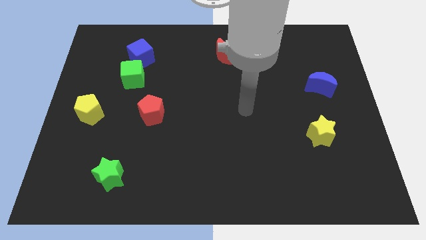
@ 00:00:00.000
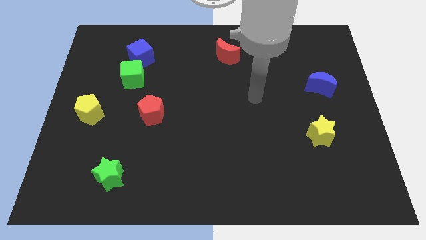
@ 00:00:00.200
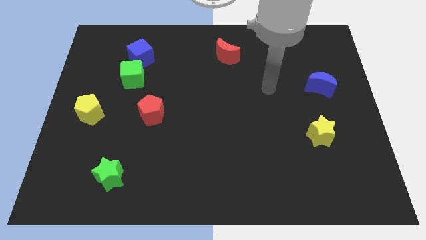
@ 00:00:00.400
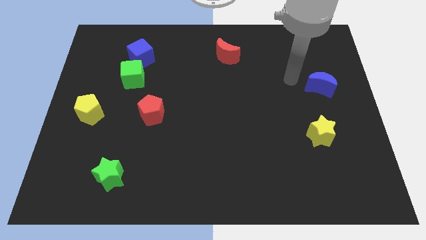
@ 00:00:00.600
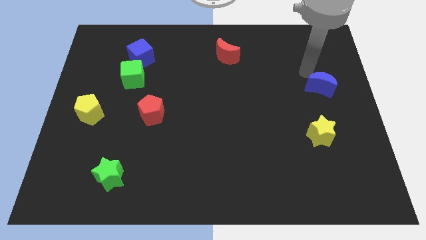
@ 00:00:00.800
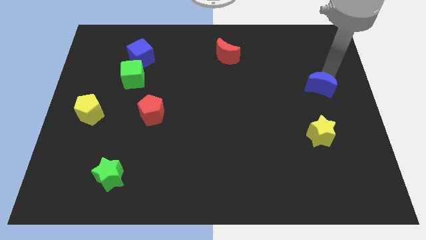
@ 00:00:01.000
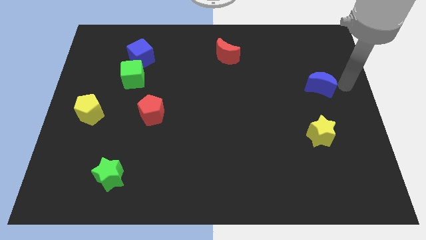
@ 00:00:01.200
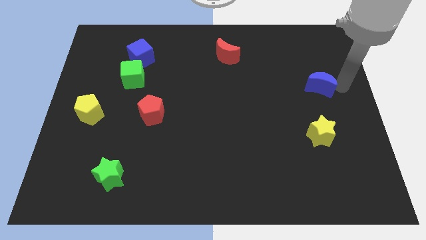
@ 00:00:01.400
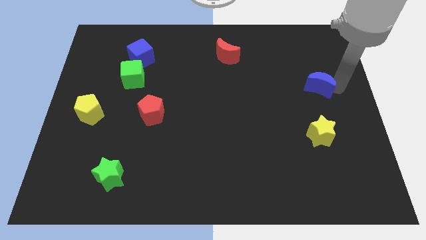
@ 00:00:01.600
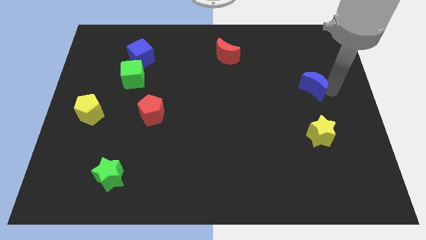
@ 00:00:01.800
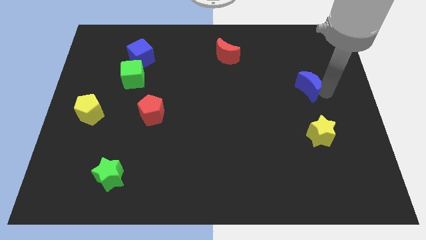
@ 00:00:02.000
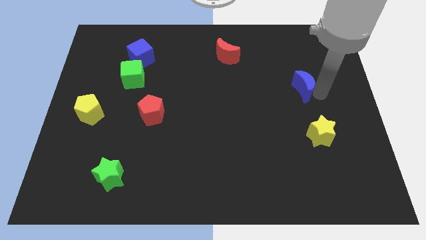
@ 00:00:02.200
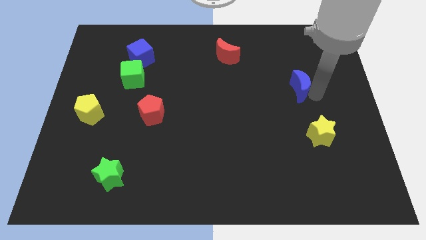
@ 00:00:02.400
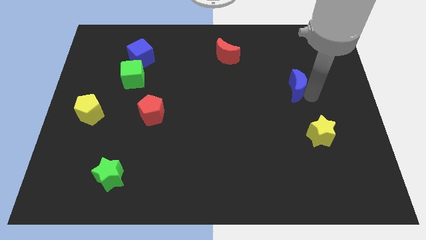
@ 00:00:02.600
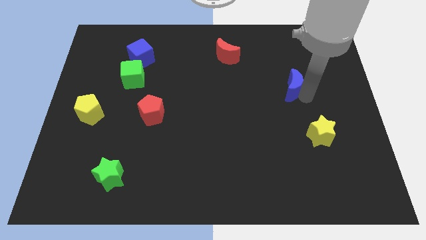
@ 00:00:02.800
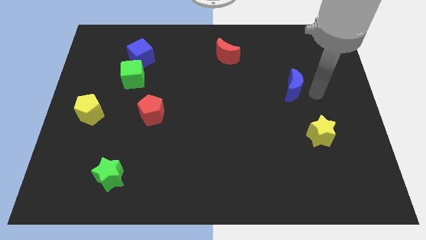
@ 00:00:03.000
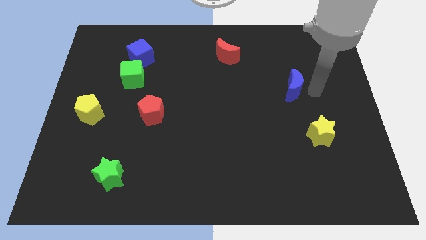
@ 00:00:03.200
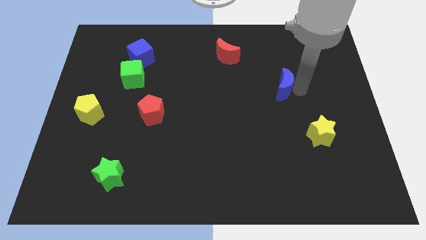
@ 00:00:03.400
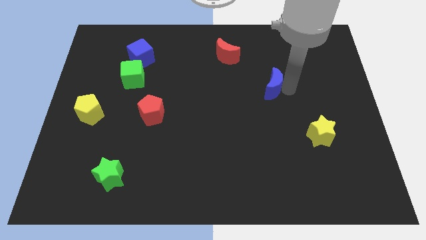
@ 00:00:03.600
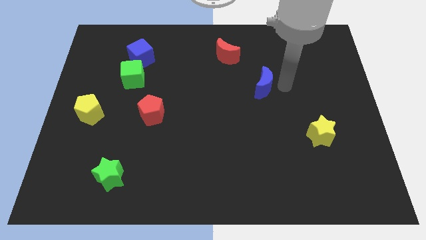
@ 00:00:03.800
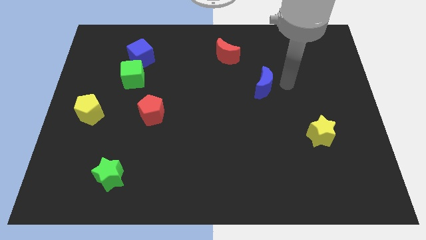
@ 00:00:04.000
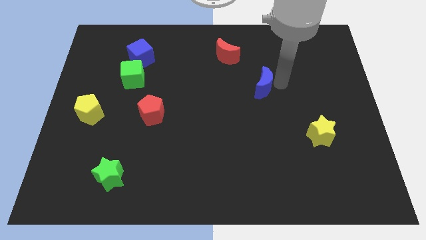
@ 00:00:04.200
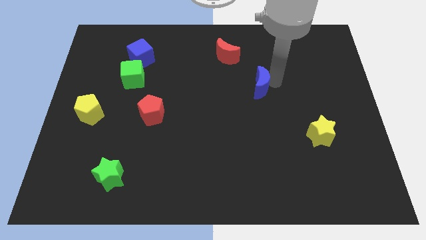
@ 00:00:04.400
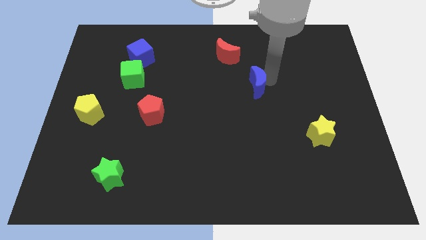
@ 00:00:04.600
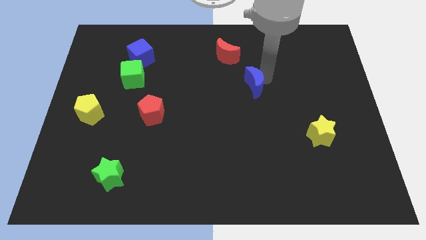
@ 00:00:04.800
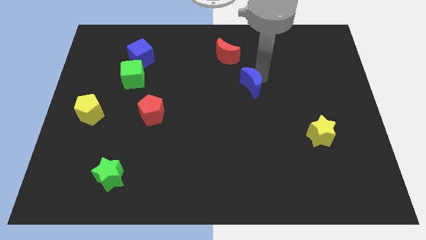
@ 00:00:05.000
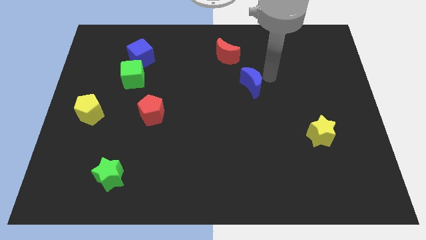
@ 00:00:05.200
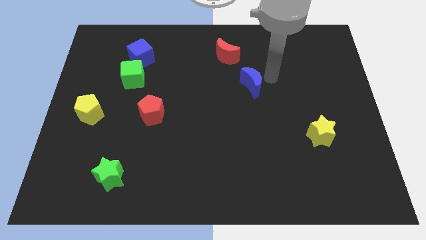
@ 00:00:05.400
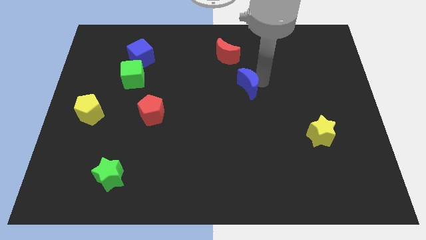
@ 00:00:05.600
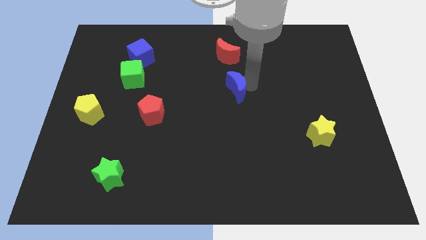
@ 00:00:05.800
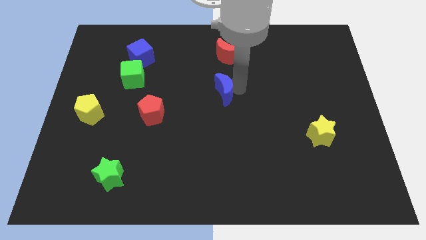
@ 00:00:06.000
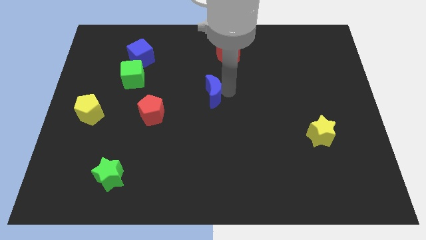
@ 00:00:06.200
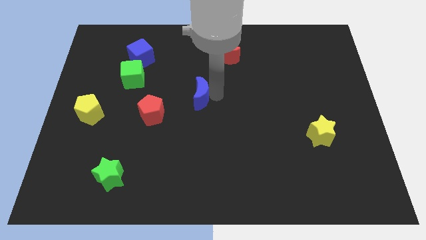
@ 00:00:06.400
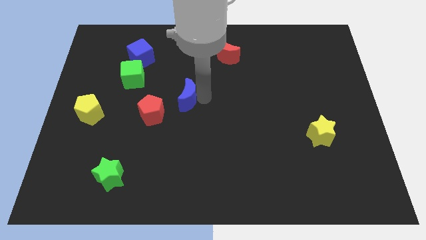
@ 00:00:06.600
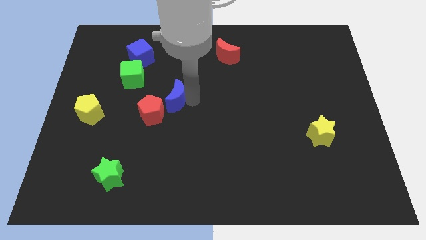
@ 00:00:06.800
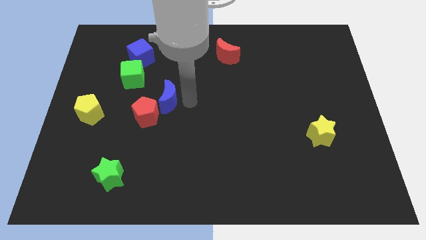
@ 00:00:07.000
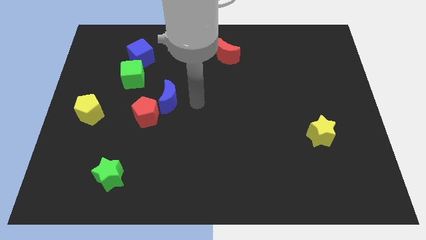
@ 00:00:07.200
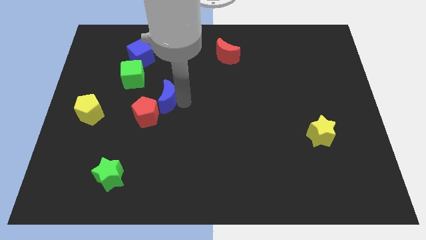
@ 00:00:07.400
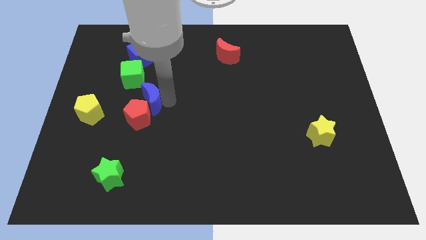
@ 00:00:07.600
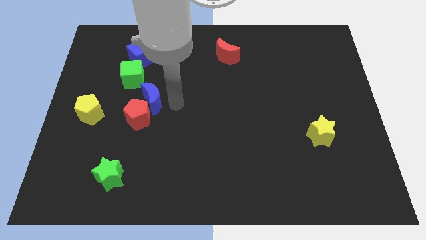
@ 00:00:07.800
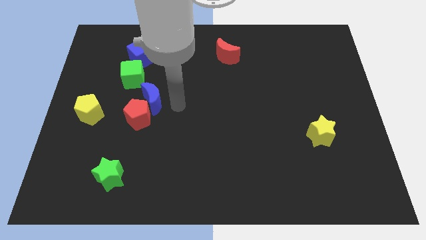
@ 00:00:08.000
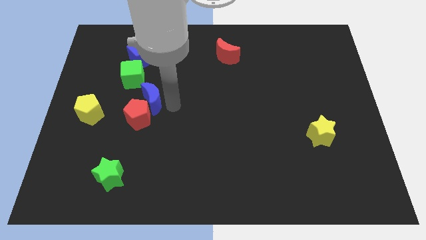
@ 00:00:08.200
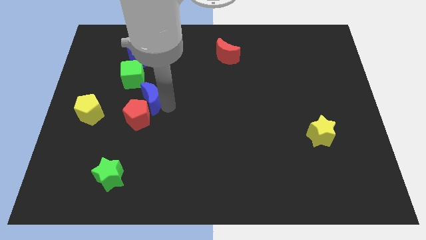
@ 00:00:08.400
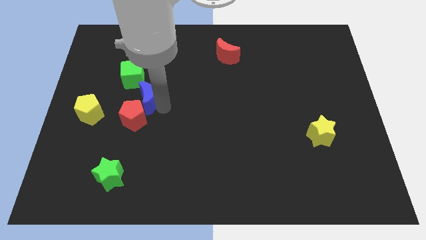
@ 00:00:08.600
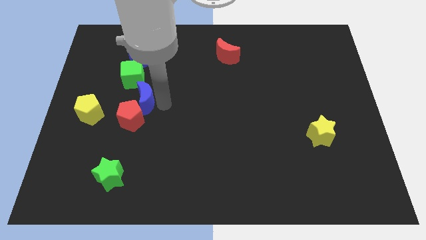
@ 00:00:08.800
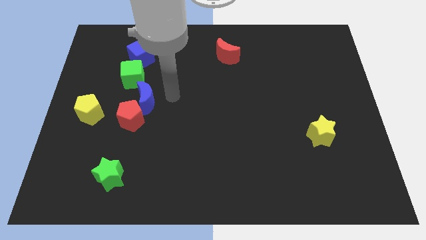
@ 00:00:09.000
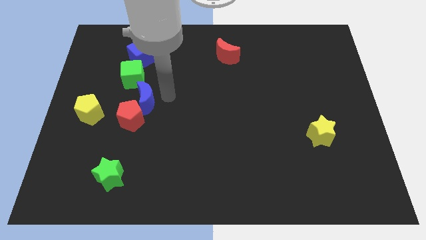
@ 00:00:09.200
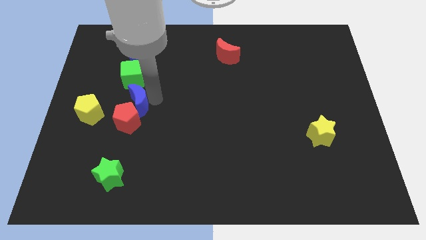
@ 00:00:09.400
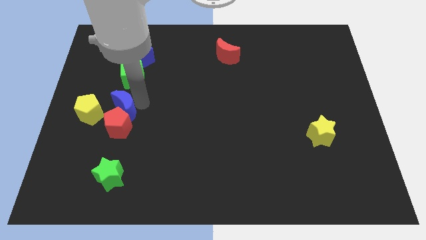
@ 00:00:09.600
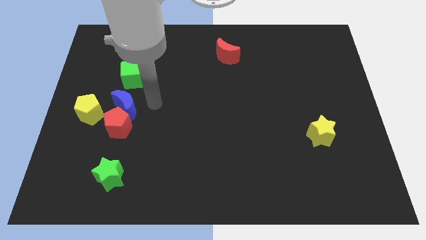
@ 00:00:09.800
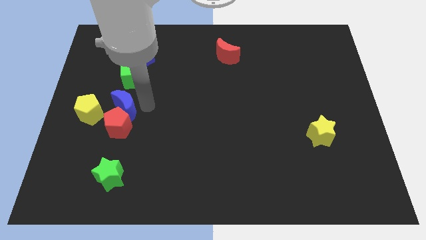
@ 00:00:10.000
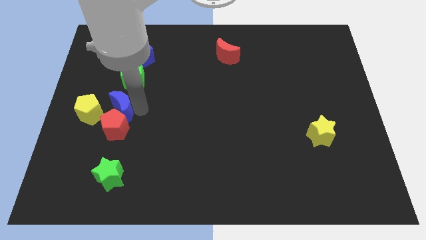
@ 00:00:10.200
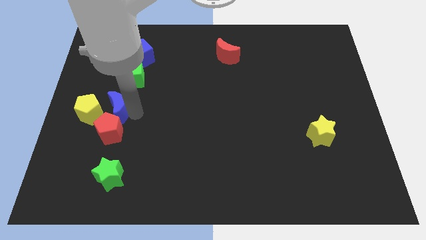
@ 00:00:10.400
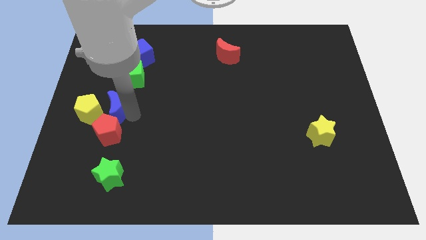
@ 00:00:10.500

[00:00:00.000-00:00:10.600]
push the blue moon close to the yellow pentagon

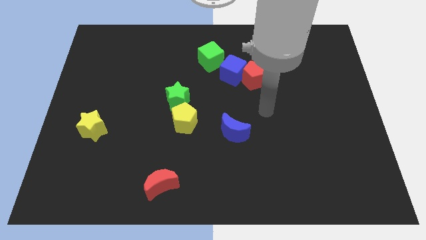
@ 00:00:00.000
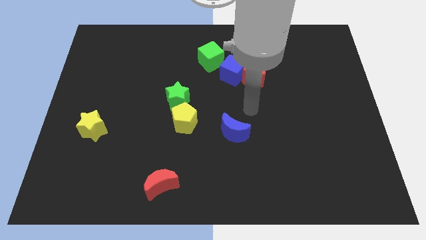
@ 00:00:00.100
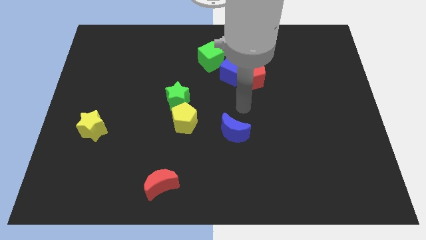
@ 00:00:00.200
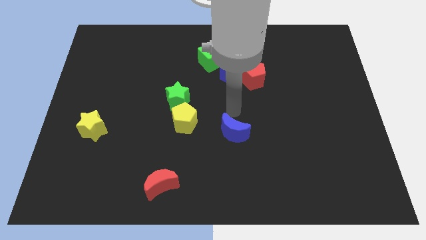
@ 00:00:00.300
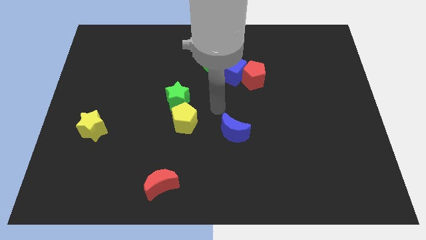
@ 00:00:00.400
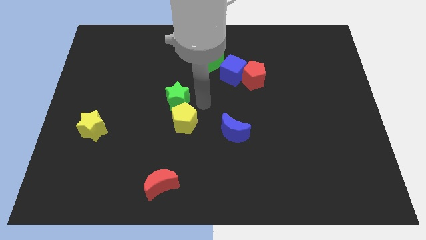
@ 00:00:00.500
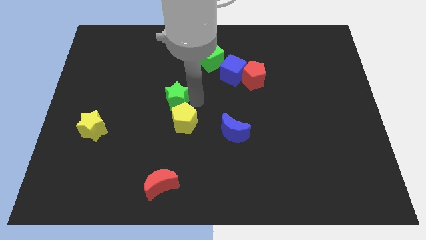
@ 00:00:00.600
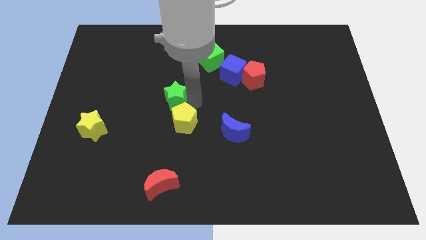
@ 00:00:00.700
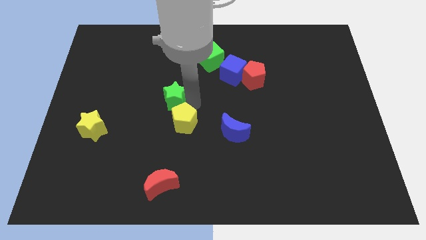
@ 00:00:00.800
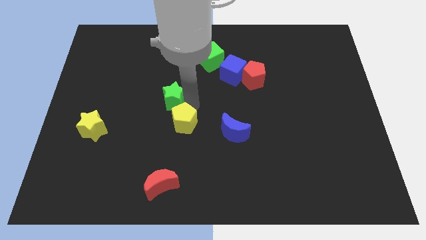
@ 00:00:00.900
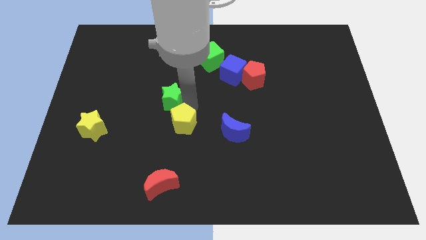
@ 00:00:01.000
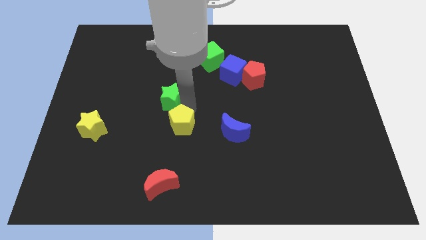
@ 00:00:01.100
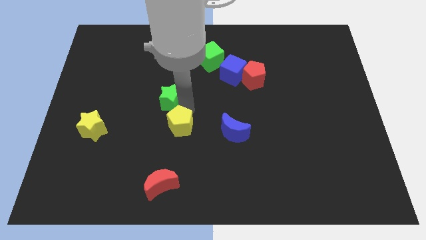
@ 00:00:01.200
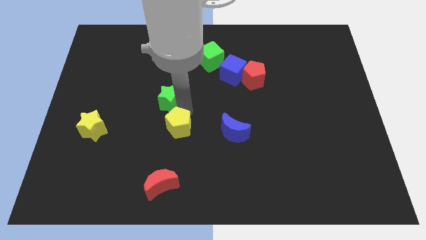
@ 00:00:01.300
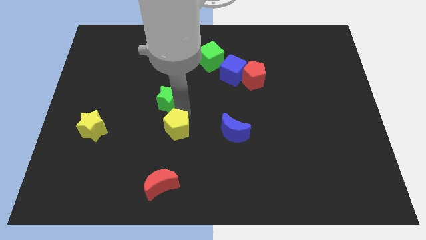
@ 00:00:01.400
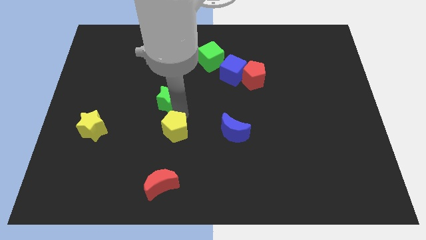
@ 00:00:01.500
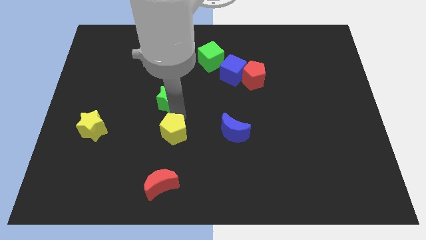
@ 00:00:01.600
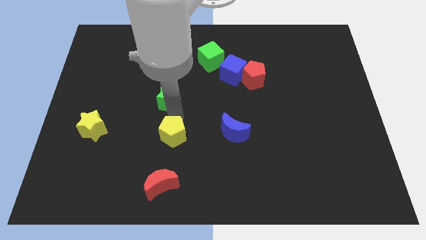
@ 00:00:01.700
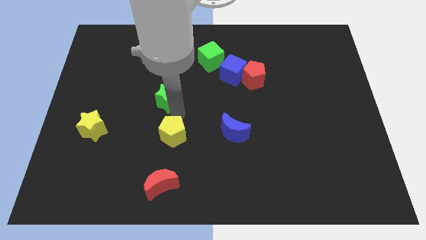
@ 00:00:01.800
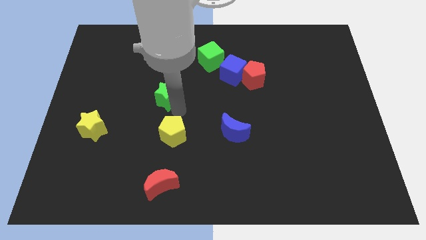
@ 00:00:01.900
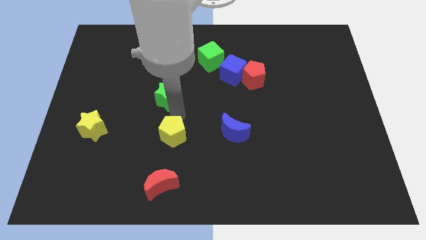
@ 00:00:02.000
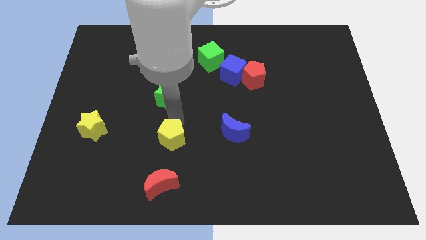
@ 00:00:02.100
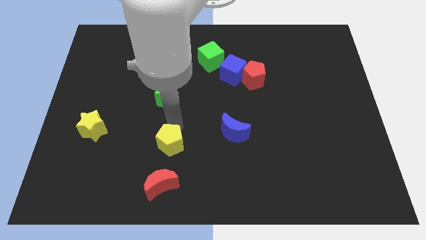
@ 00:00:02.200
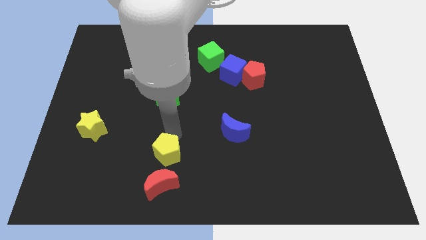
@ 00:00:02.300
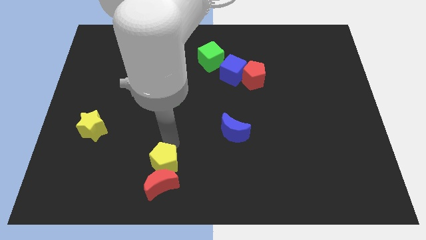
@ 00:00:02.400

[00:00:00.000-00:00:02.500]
slide the yellow pentagon towards the red moon
